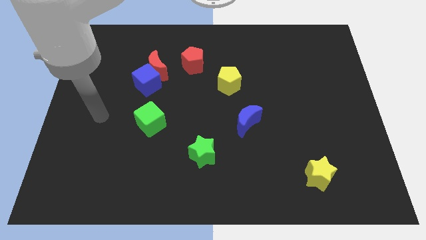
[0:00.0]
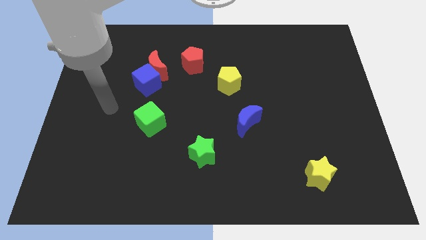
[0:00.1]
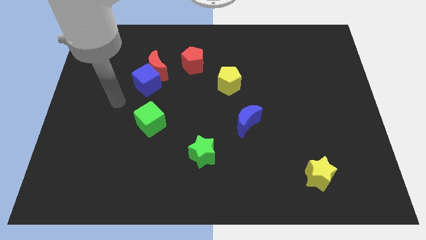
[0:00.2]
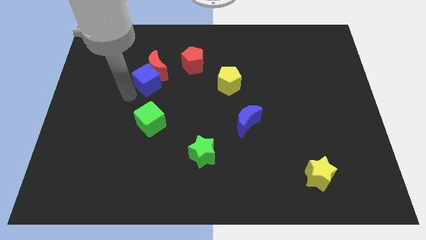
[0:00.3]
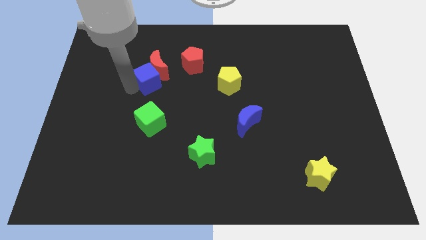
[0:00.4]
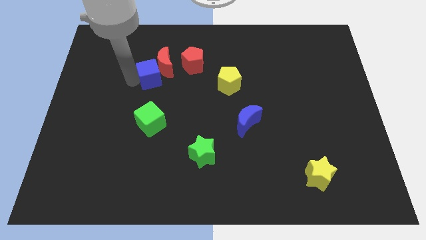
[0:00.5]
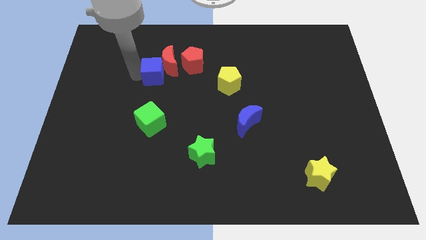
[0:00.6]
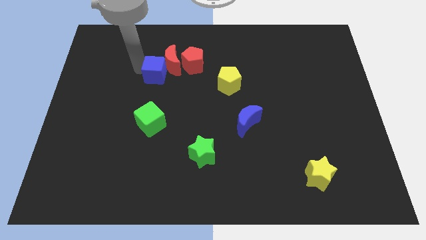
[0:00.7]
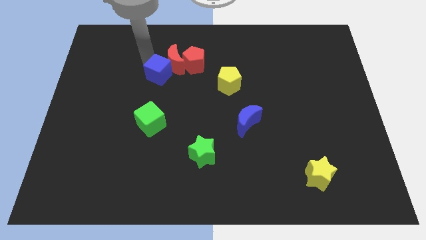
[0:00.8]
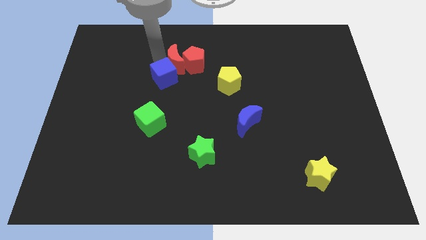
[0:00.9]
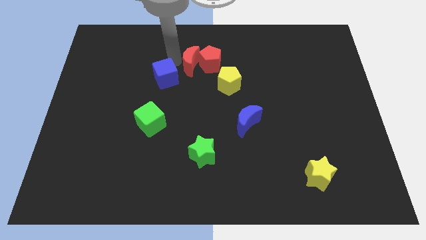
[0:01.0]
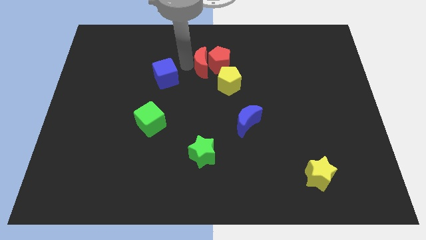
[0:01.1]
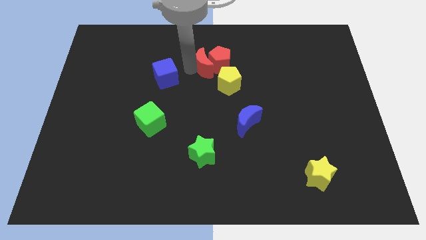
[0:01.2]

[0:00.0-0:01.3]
pull the blue cube apart from the red moon

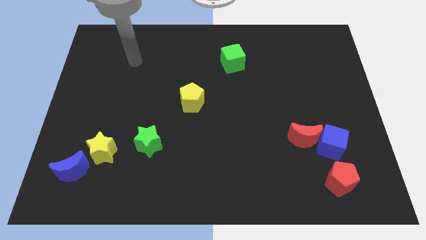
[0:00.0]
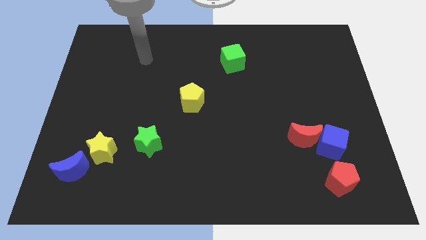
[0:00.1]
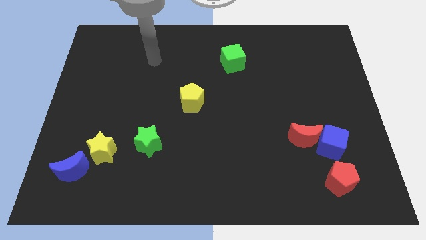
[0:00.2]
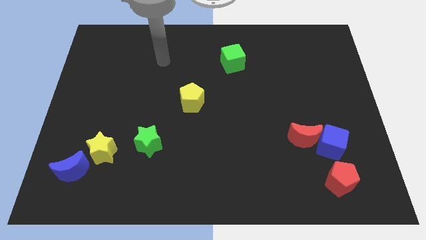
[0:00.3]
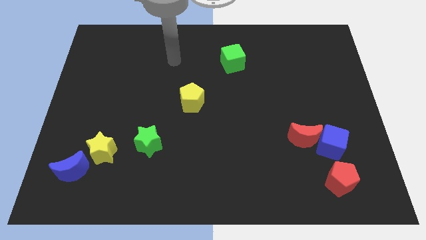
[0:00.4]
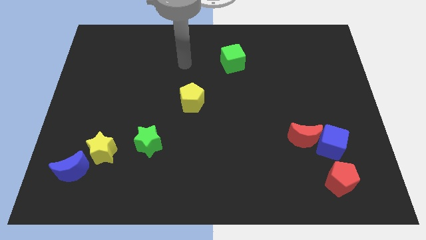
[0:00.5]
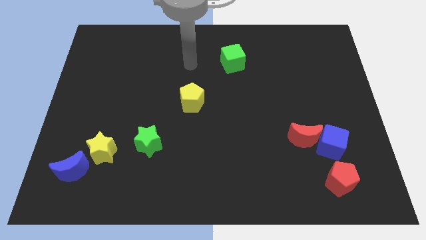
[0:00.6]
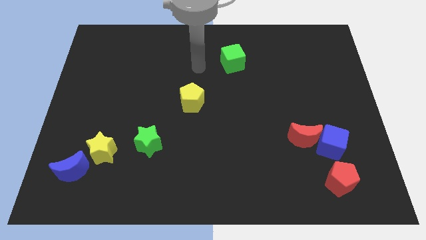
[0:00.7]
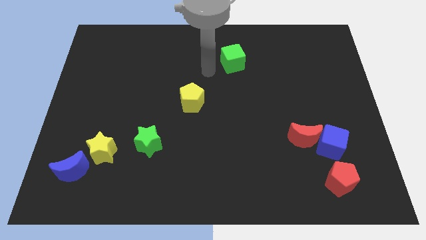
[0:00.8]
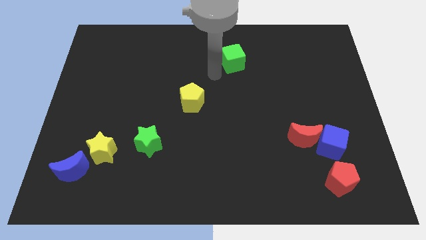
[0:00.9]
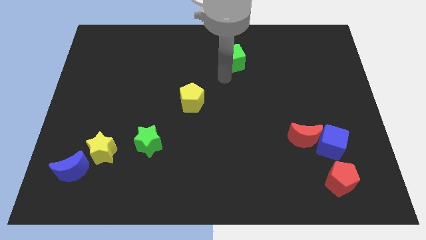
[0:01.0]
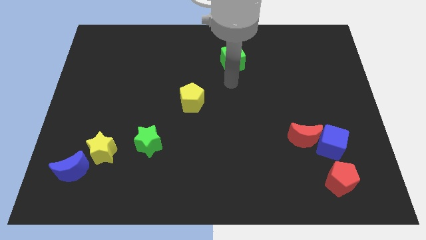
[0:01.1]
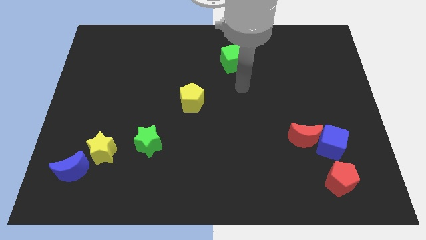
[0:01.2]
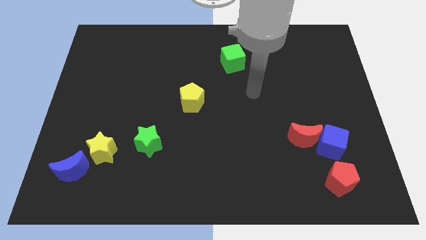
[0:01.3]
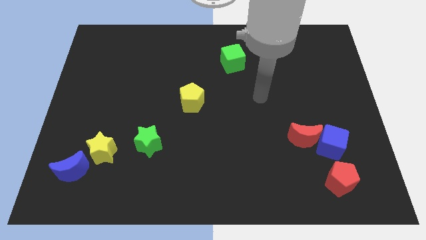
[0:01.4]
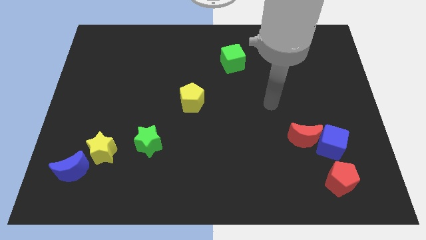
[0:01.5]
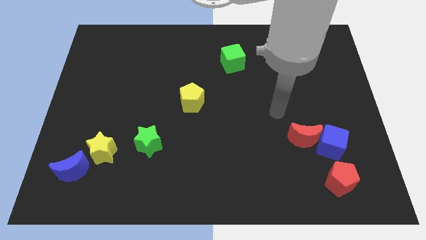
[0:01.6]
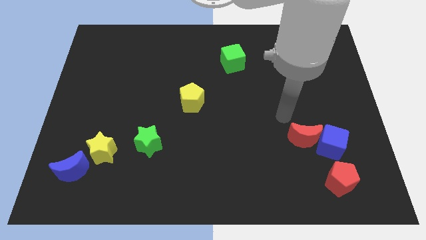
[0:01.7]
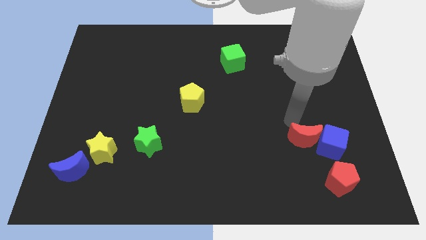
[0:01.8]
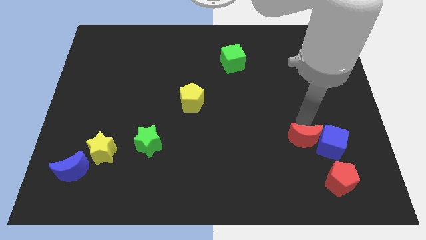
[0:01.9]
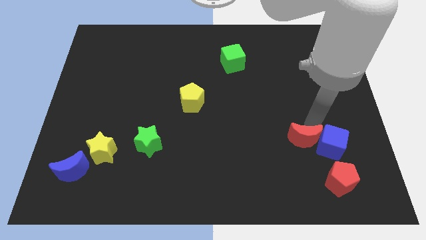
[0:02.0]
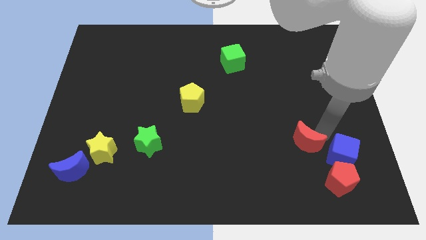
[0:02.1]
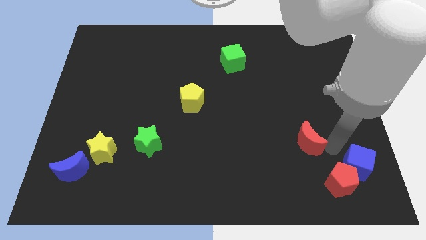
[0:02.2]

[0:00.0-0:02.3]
move the red moon away from the blue cube

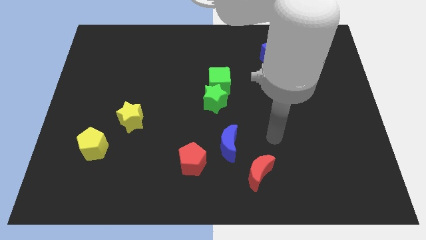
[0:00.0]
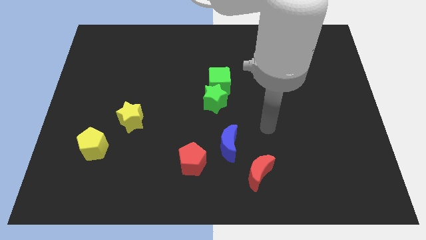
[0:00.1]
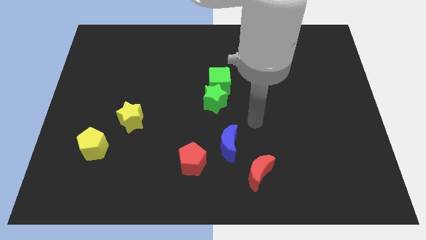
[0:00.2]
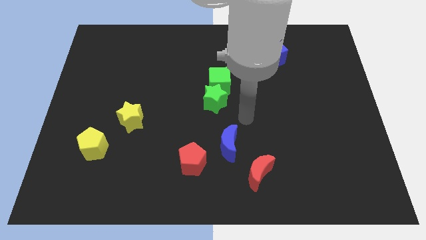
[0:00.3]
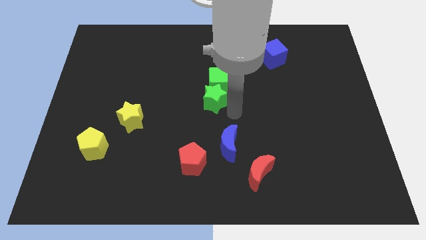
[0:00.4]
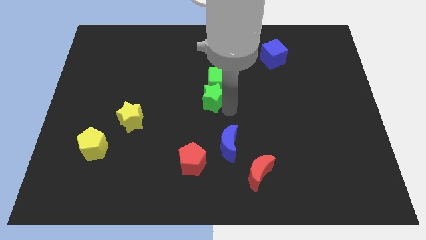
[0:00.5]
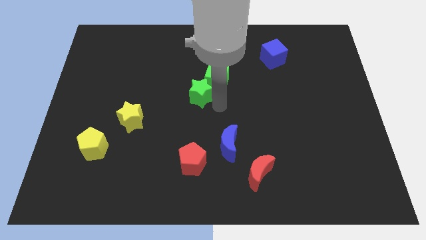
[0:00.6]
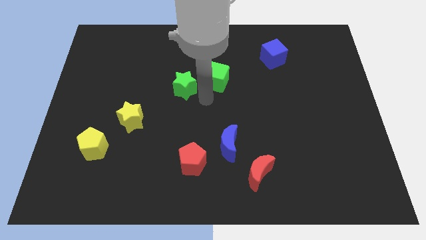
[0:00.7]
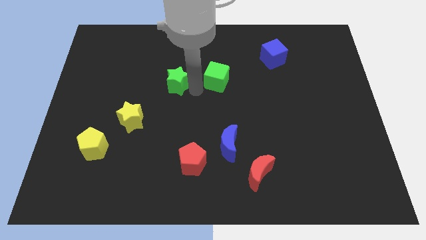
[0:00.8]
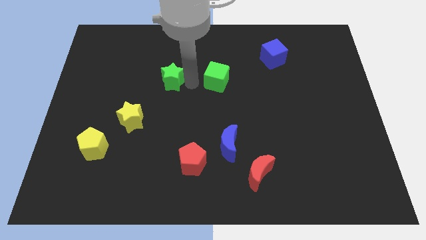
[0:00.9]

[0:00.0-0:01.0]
move the green cube away from the green star

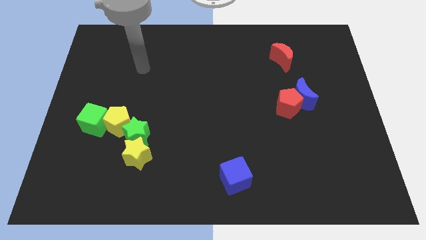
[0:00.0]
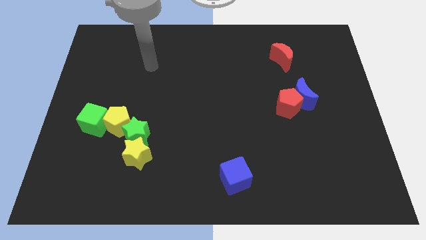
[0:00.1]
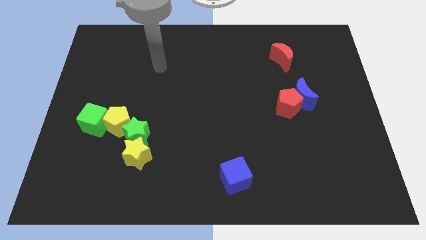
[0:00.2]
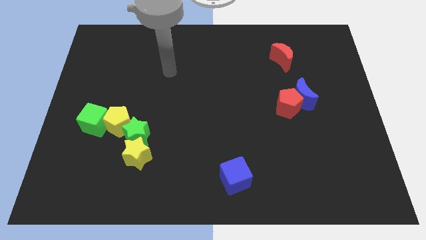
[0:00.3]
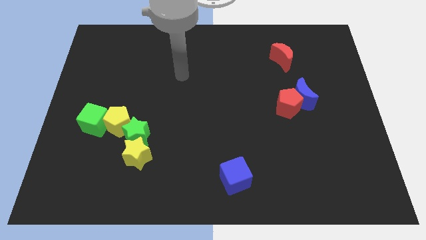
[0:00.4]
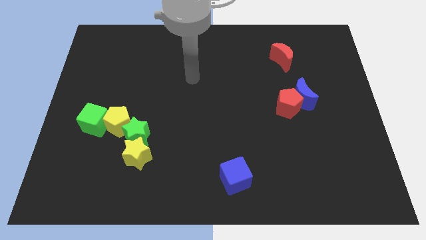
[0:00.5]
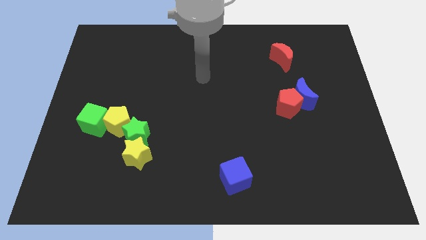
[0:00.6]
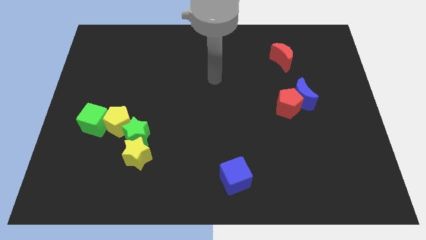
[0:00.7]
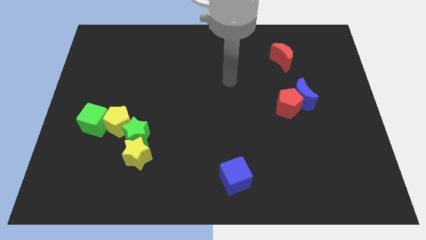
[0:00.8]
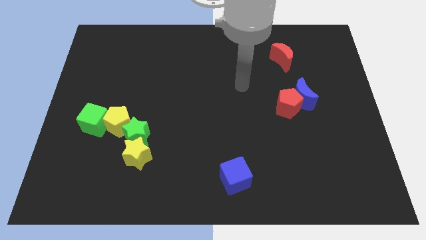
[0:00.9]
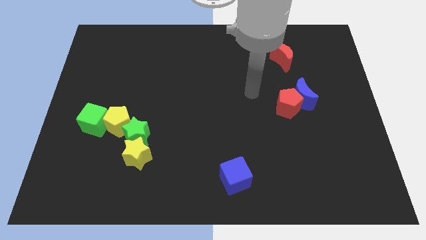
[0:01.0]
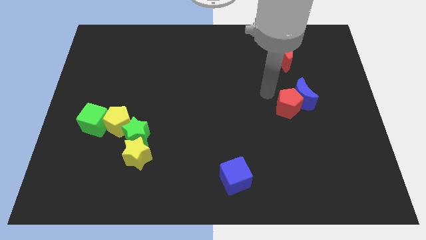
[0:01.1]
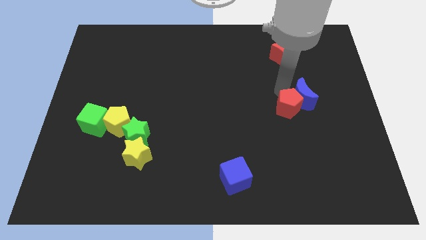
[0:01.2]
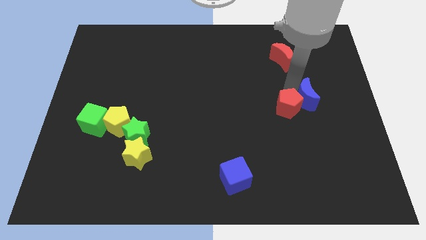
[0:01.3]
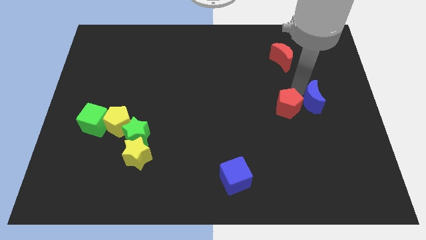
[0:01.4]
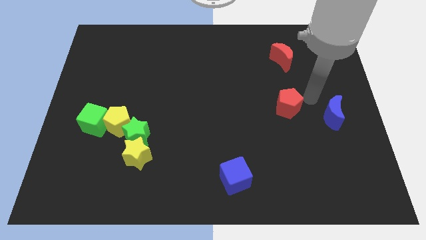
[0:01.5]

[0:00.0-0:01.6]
separate the red pentagon from the blue moon

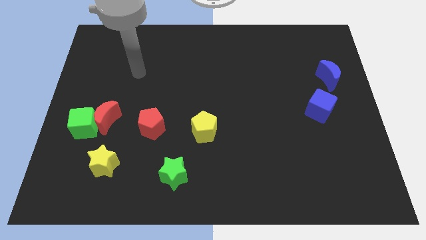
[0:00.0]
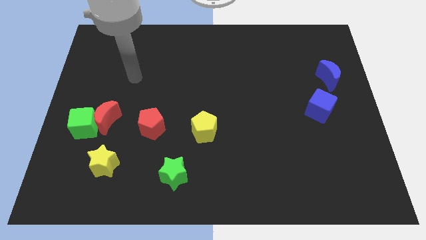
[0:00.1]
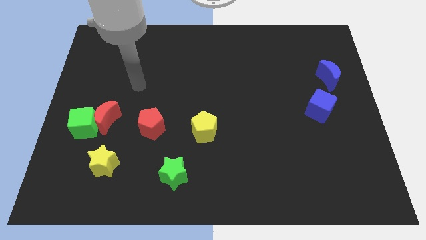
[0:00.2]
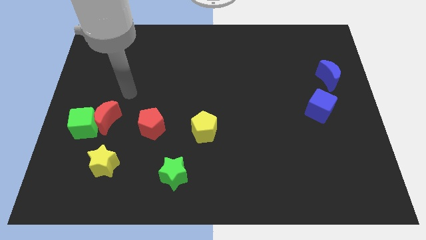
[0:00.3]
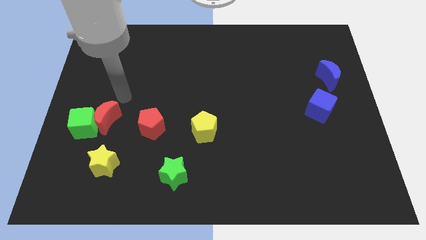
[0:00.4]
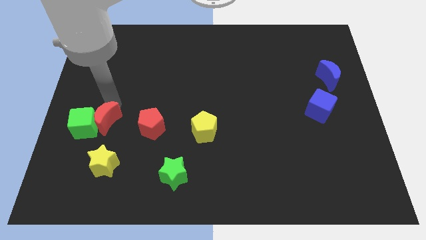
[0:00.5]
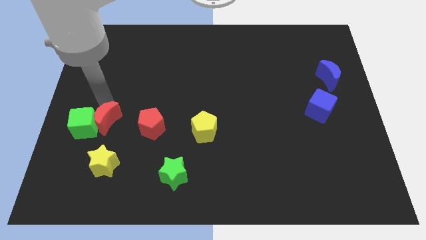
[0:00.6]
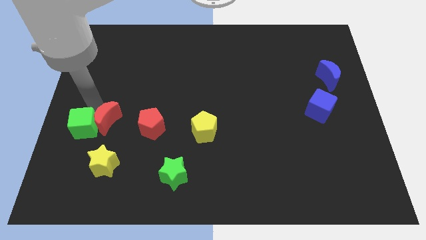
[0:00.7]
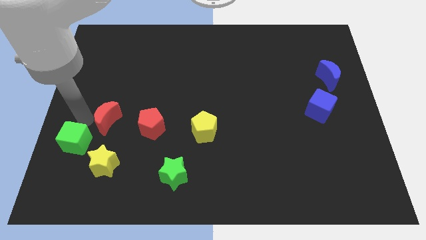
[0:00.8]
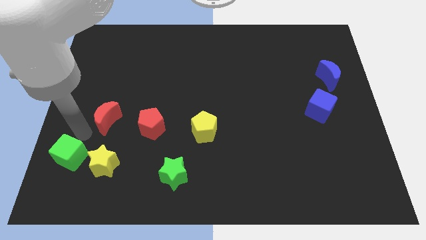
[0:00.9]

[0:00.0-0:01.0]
pull the red moon apart from the green cube

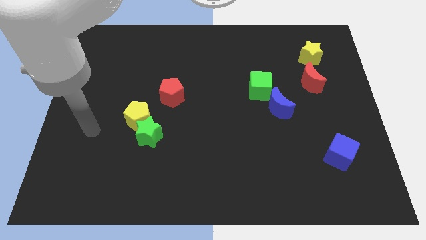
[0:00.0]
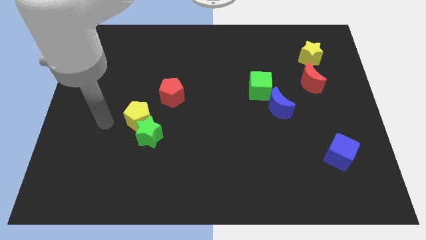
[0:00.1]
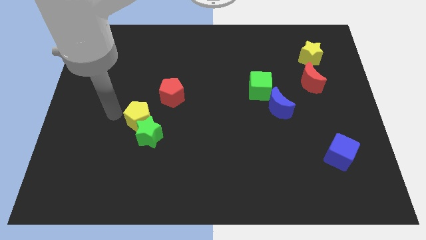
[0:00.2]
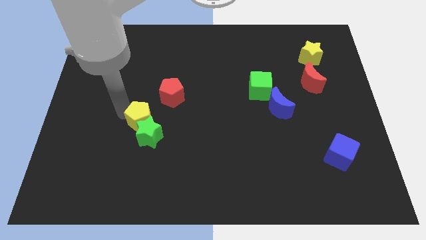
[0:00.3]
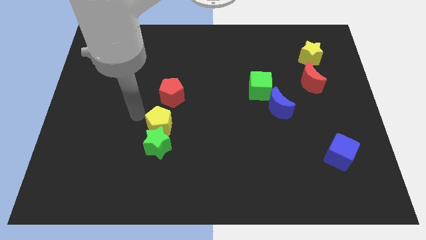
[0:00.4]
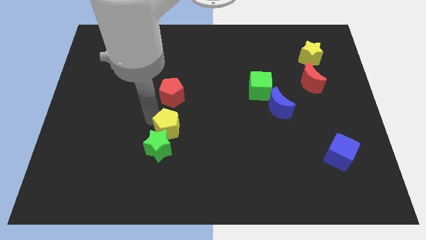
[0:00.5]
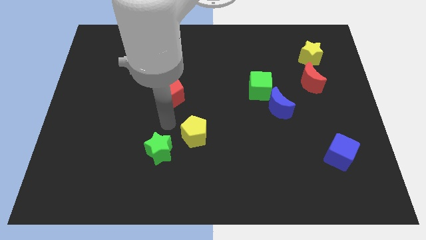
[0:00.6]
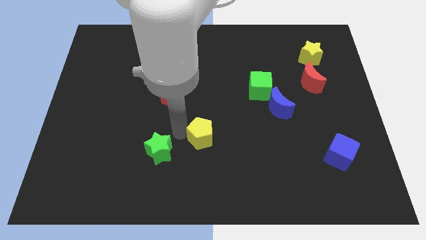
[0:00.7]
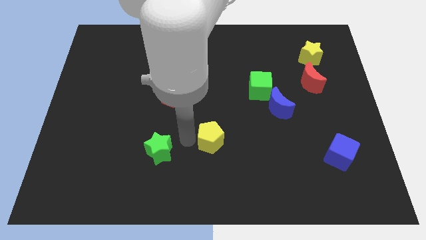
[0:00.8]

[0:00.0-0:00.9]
separate the green star from the yellow pentagon

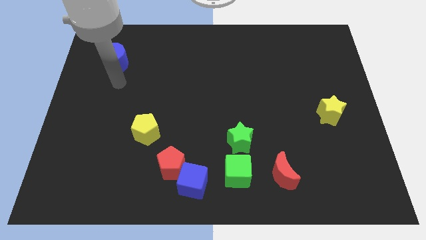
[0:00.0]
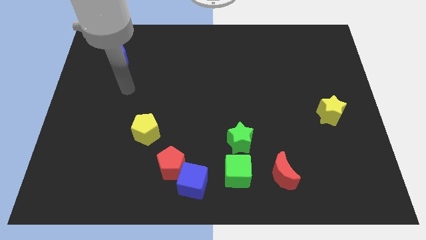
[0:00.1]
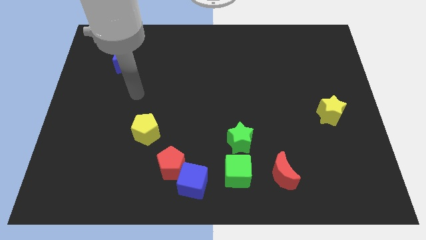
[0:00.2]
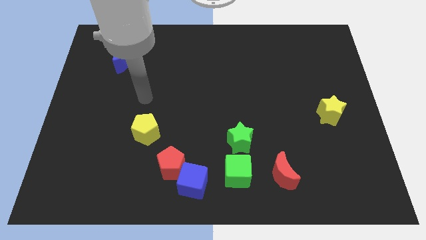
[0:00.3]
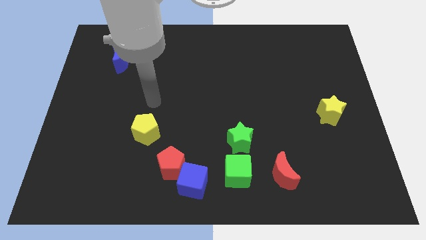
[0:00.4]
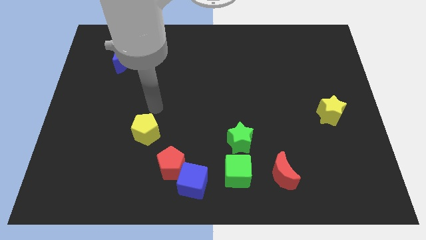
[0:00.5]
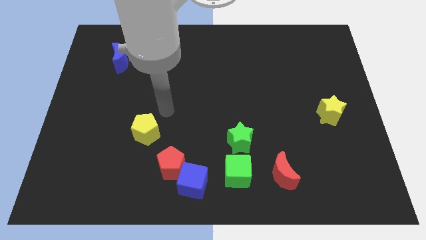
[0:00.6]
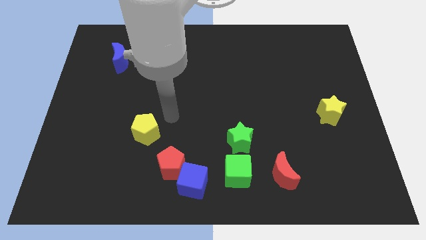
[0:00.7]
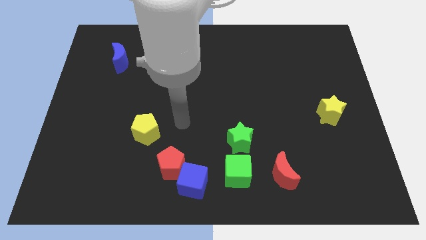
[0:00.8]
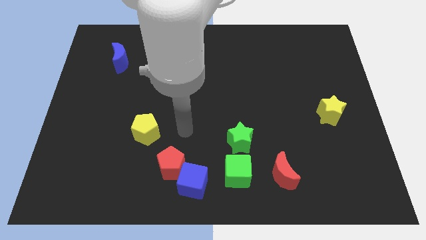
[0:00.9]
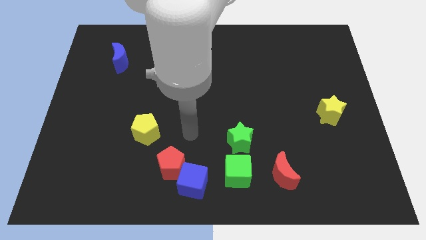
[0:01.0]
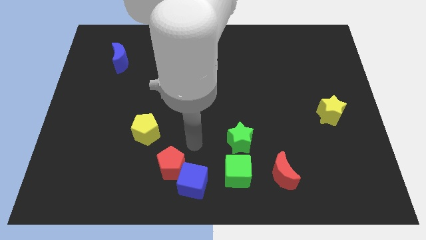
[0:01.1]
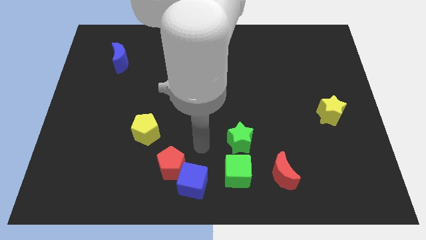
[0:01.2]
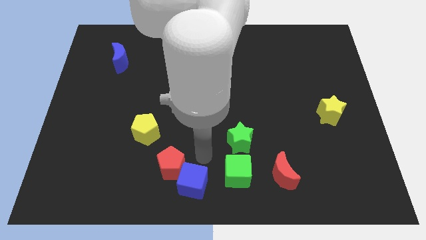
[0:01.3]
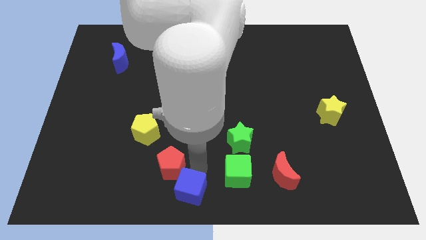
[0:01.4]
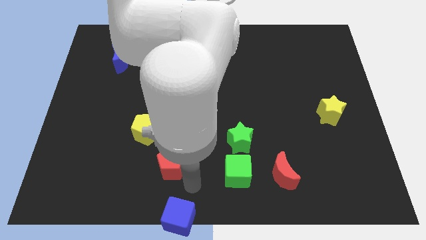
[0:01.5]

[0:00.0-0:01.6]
move the red pentagon away from the blue cube
